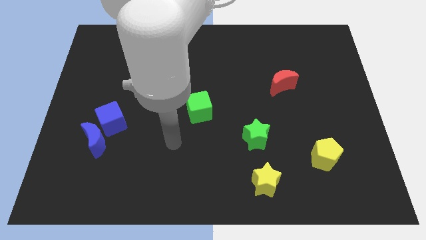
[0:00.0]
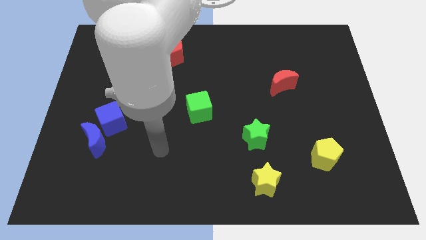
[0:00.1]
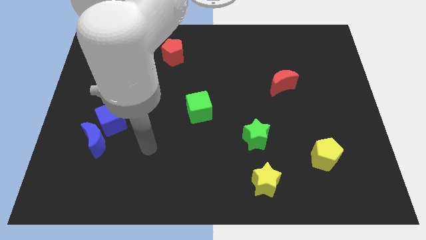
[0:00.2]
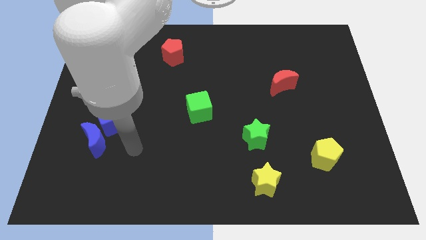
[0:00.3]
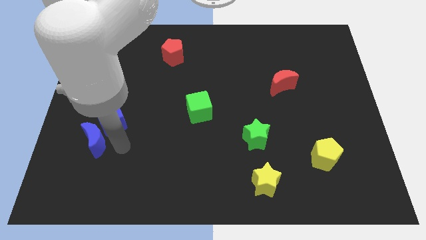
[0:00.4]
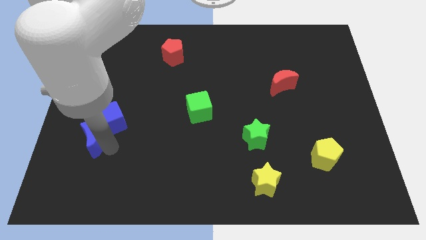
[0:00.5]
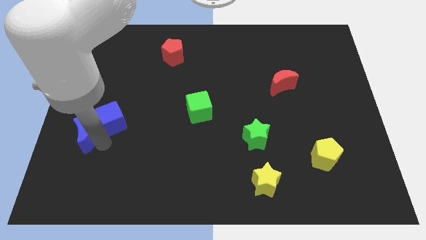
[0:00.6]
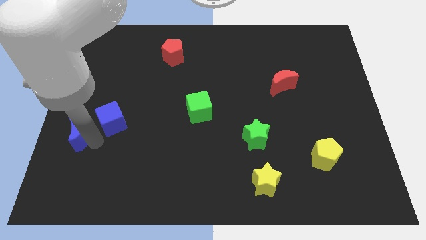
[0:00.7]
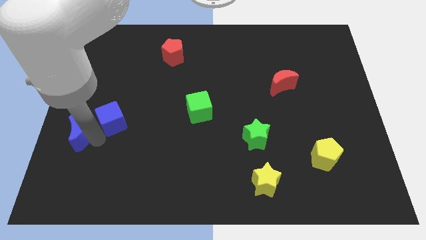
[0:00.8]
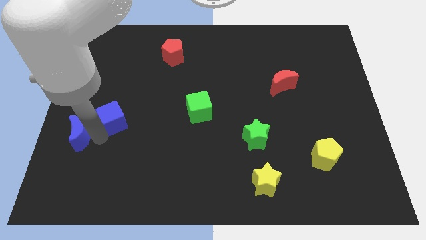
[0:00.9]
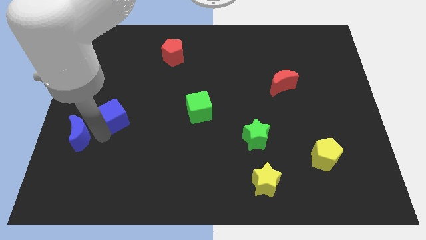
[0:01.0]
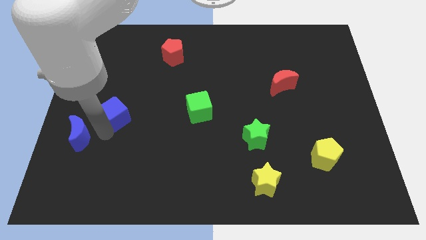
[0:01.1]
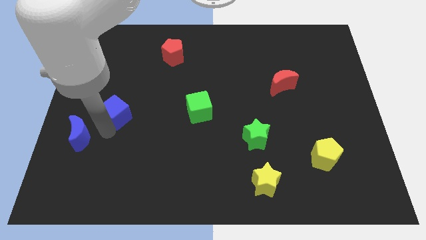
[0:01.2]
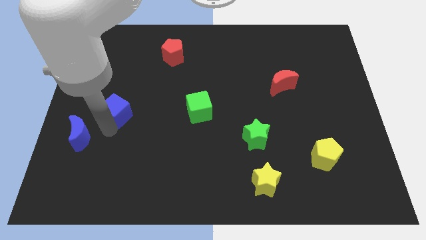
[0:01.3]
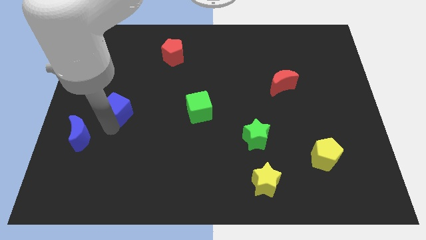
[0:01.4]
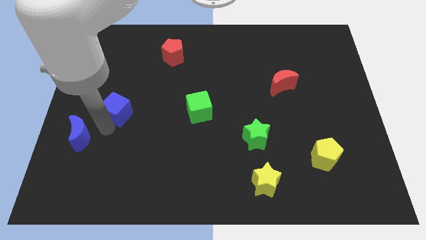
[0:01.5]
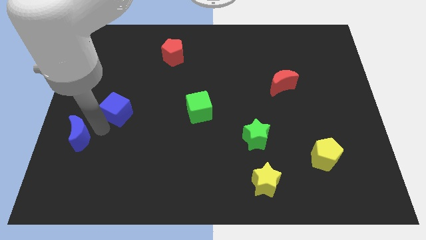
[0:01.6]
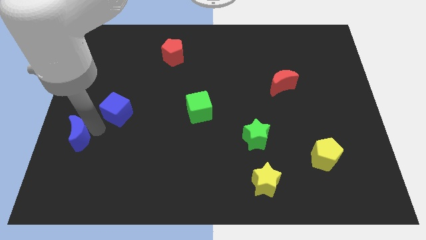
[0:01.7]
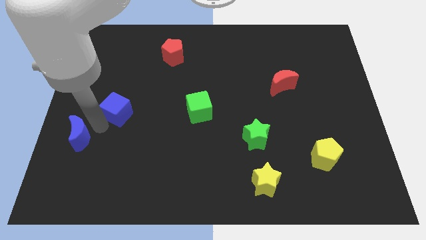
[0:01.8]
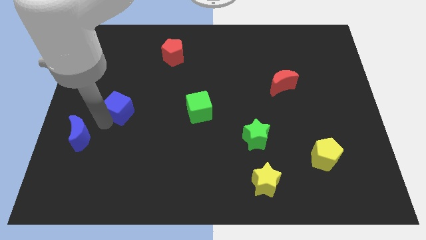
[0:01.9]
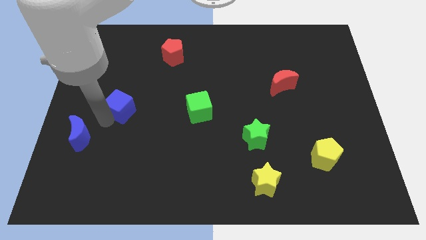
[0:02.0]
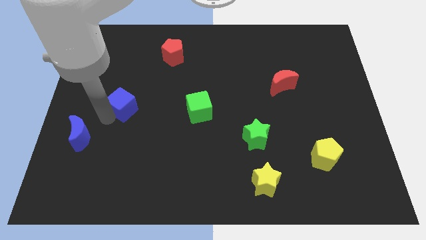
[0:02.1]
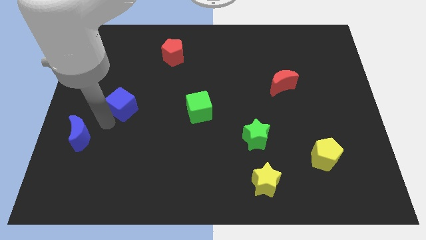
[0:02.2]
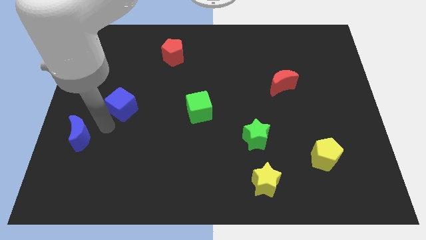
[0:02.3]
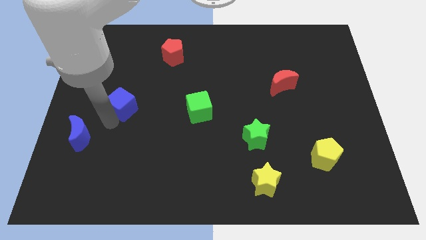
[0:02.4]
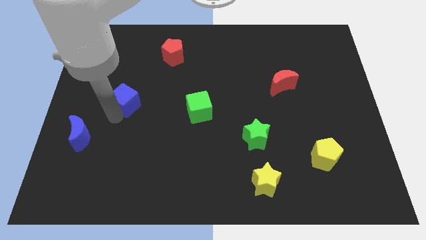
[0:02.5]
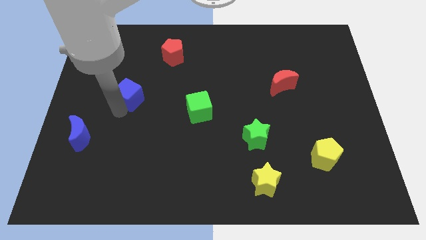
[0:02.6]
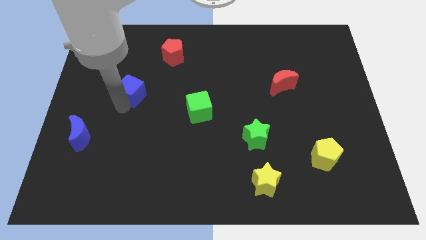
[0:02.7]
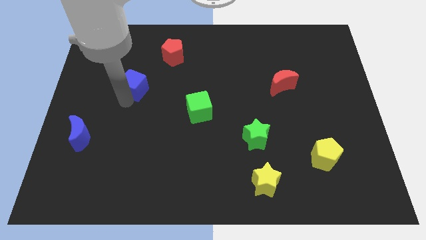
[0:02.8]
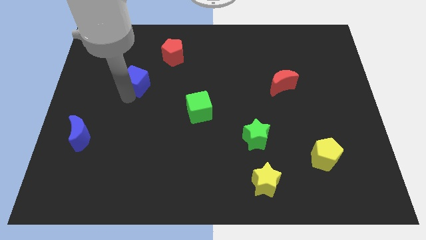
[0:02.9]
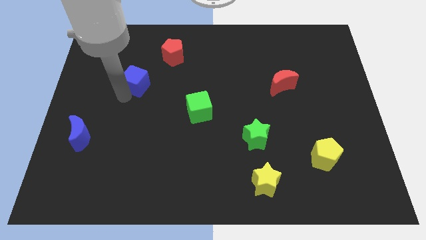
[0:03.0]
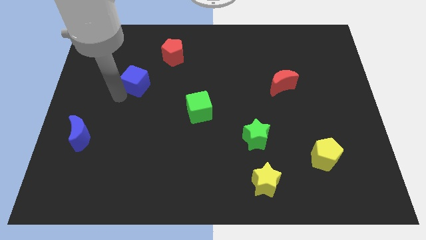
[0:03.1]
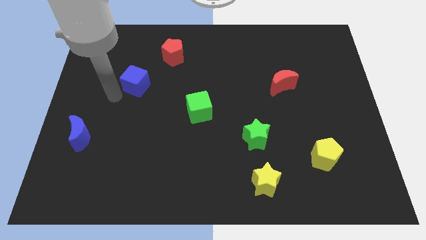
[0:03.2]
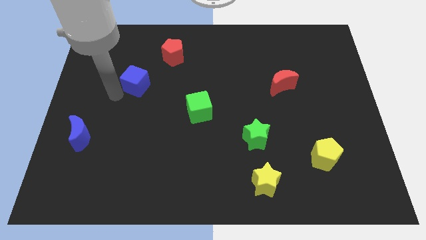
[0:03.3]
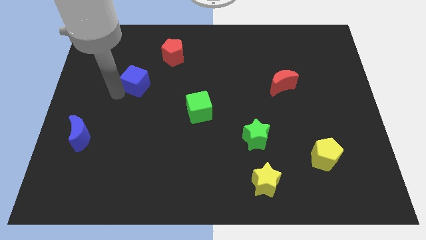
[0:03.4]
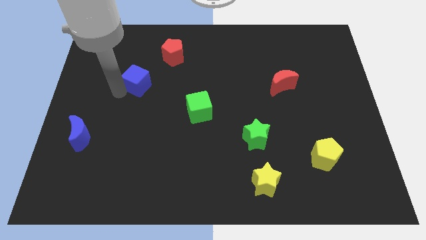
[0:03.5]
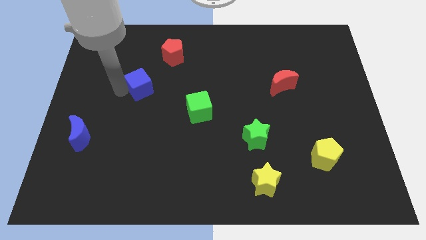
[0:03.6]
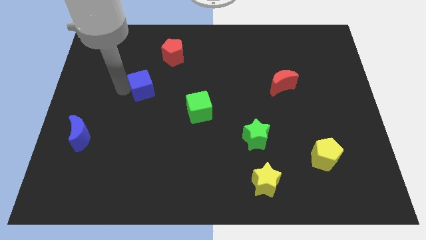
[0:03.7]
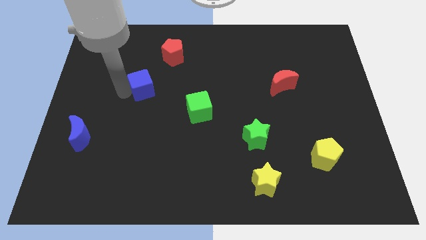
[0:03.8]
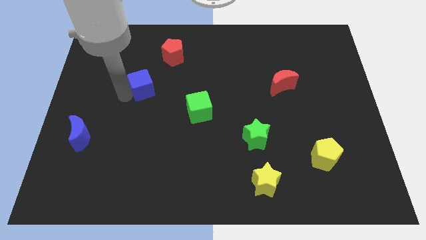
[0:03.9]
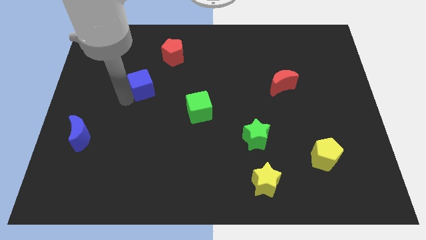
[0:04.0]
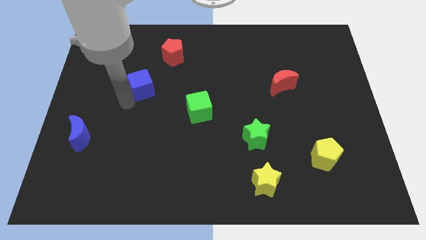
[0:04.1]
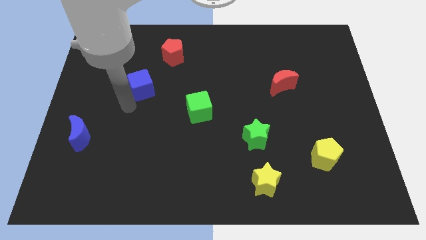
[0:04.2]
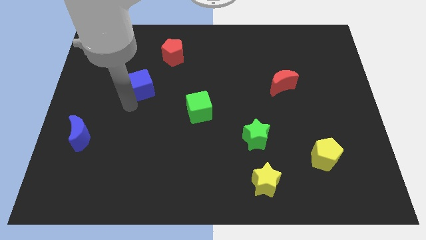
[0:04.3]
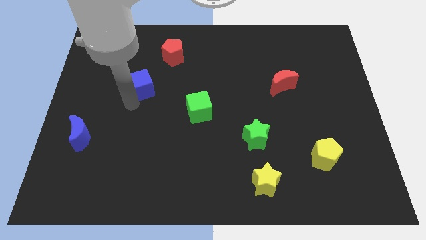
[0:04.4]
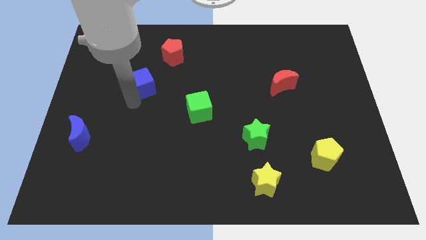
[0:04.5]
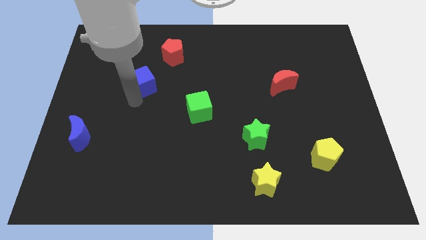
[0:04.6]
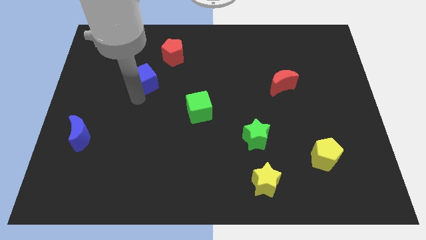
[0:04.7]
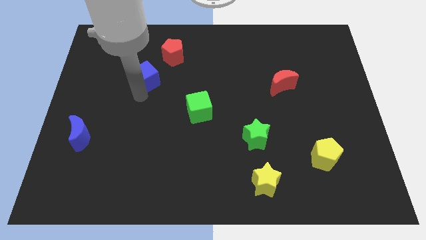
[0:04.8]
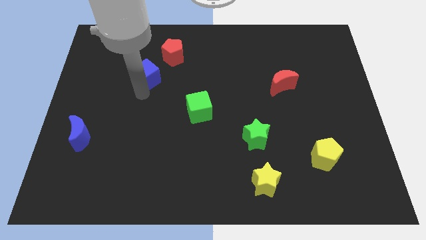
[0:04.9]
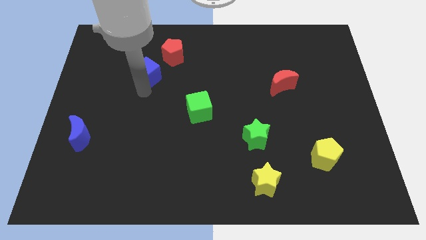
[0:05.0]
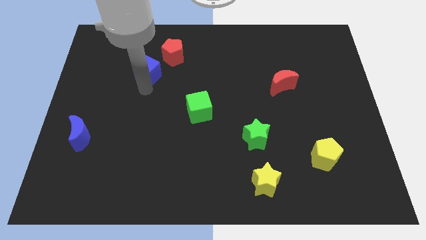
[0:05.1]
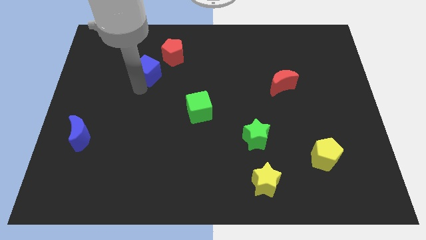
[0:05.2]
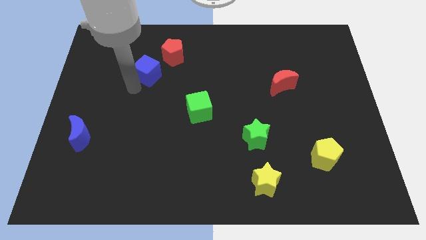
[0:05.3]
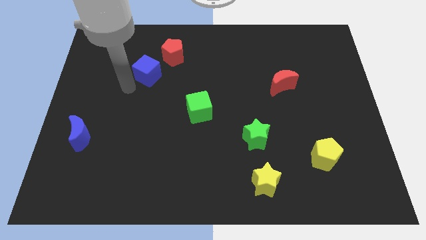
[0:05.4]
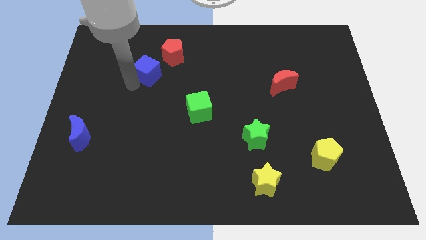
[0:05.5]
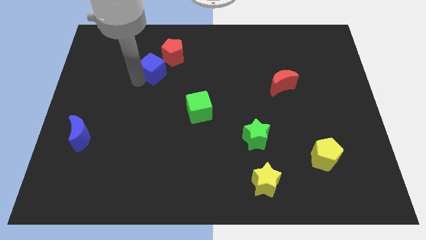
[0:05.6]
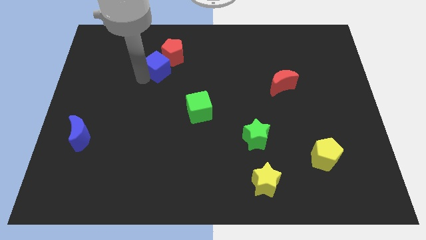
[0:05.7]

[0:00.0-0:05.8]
push the blue cube towards the red pentagon

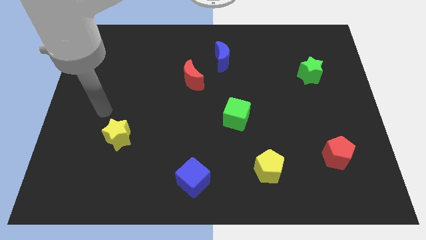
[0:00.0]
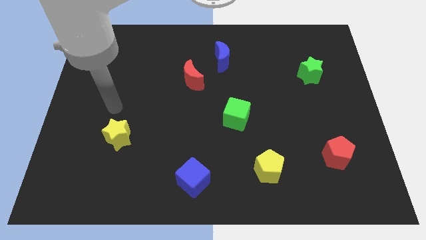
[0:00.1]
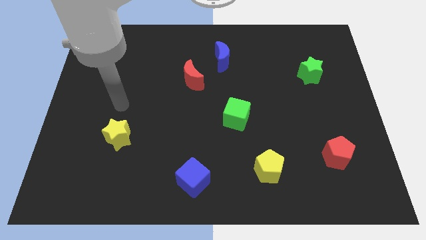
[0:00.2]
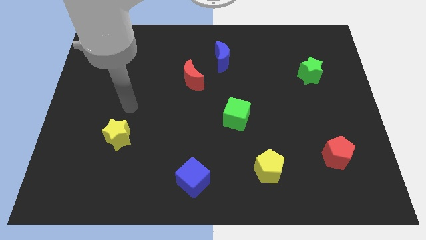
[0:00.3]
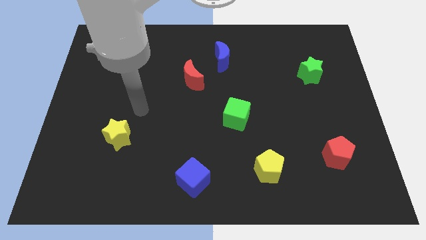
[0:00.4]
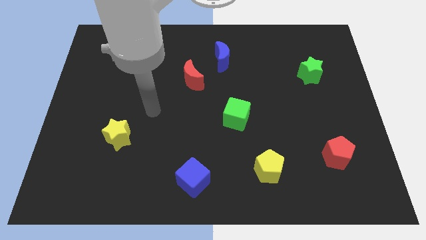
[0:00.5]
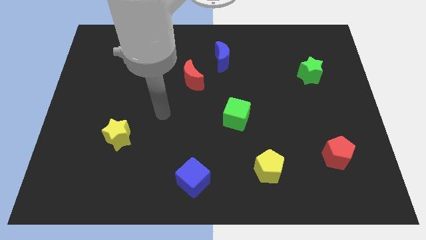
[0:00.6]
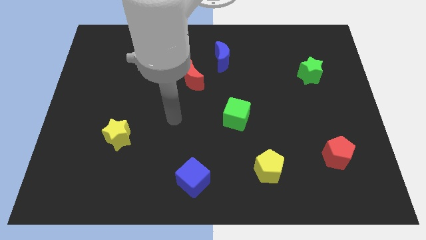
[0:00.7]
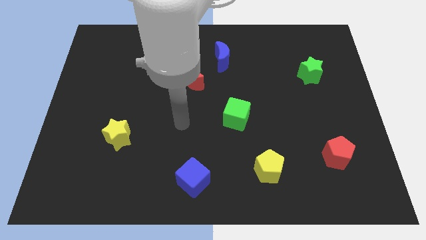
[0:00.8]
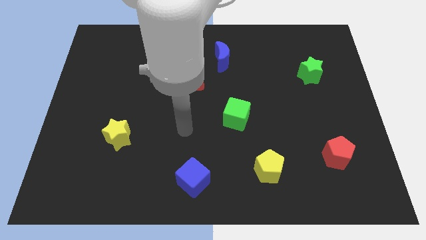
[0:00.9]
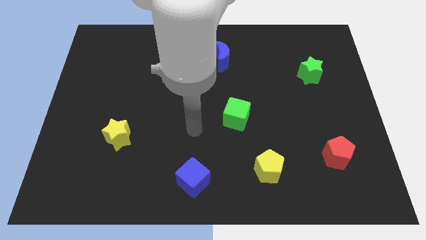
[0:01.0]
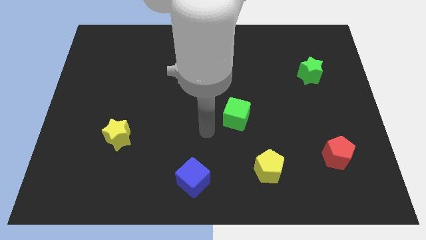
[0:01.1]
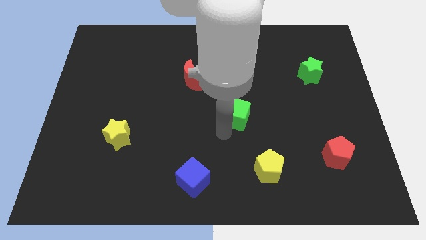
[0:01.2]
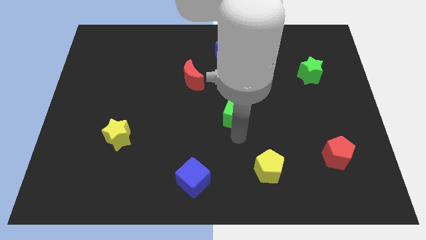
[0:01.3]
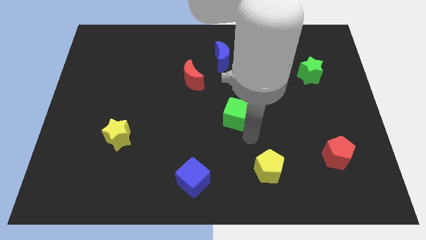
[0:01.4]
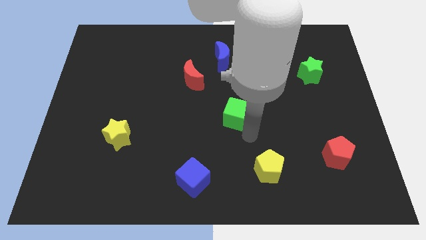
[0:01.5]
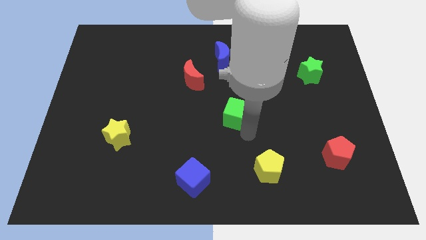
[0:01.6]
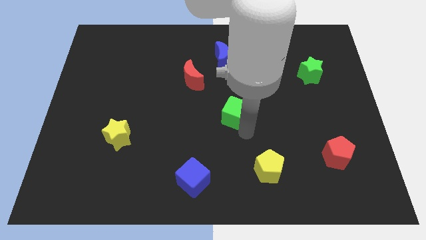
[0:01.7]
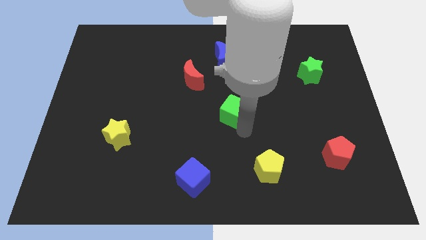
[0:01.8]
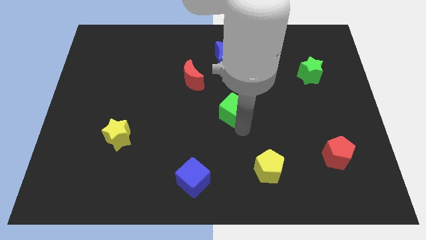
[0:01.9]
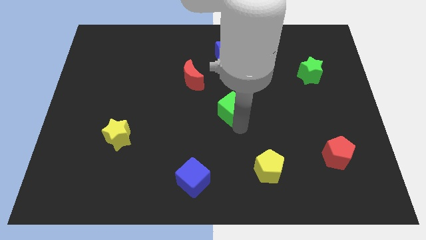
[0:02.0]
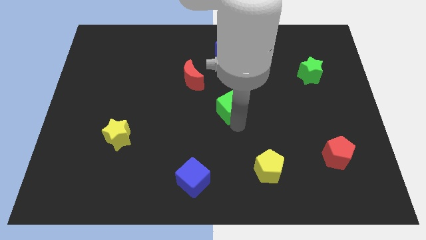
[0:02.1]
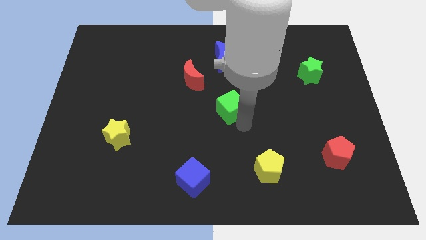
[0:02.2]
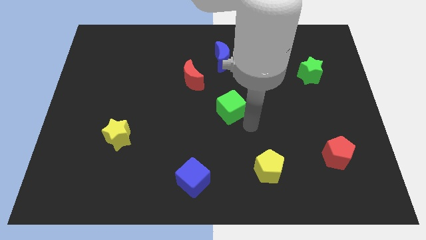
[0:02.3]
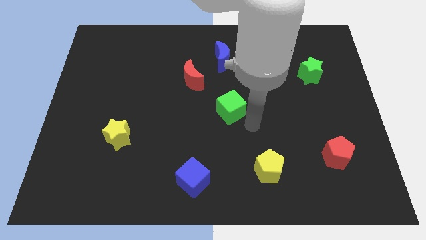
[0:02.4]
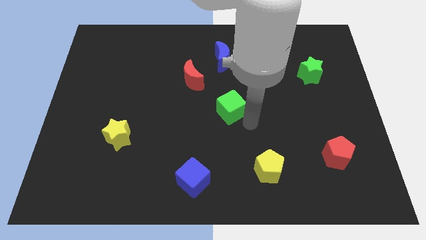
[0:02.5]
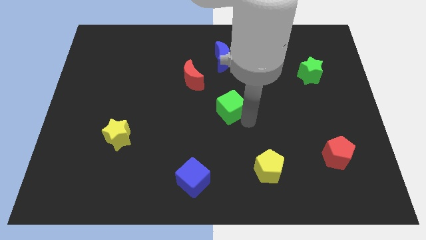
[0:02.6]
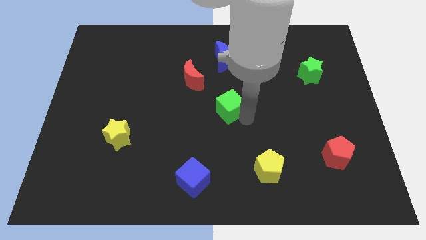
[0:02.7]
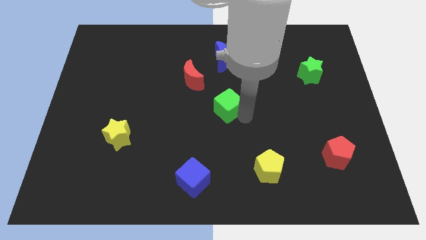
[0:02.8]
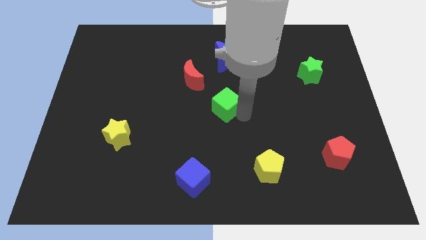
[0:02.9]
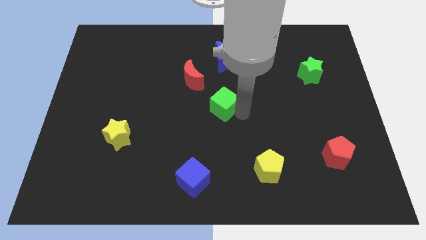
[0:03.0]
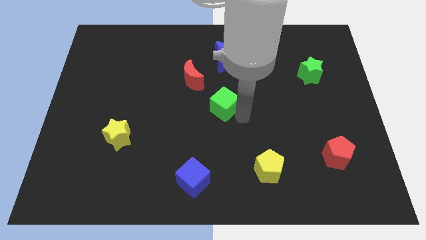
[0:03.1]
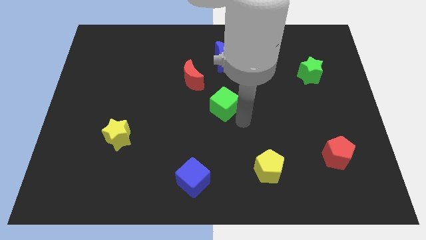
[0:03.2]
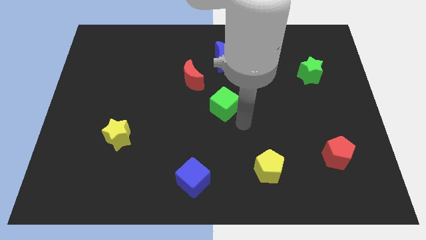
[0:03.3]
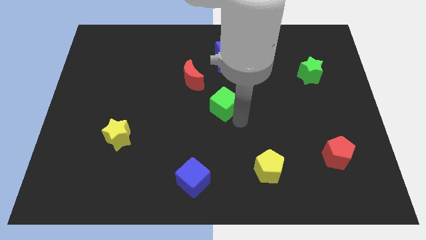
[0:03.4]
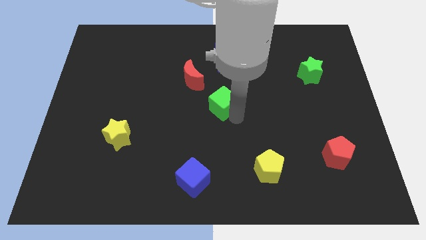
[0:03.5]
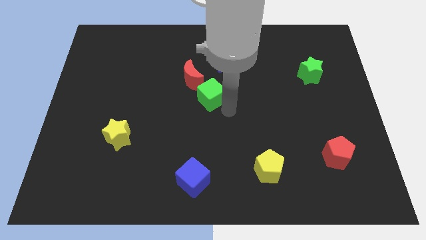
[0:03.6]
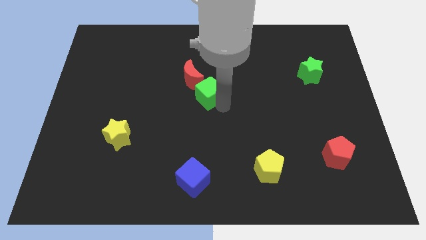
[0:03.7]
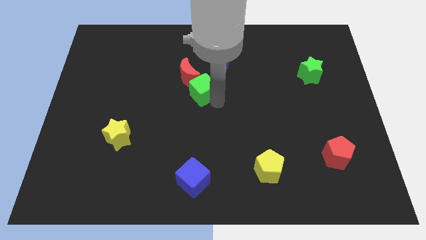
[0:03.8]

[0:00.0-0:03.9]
slide the green cube close to the red moon
